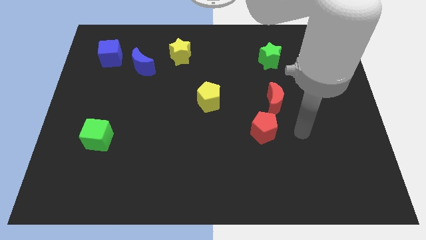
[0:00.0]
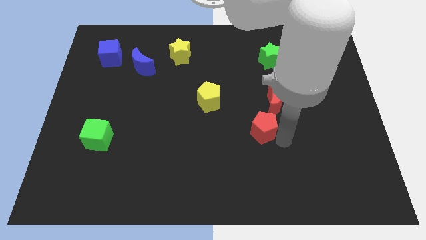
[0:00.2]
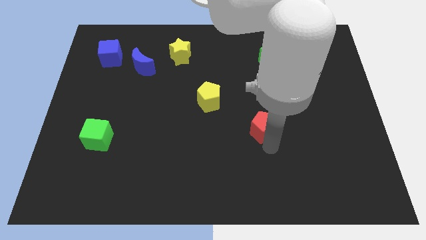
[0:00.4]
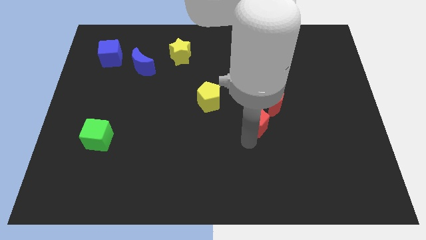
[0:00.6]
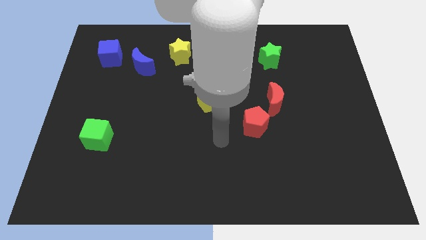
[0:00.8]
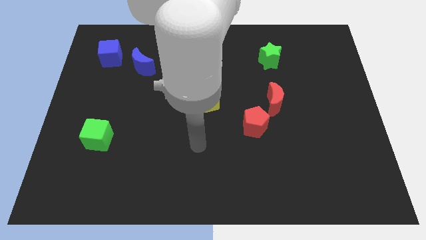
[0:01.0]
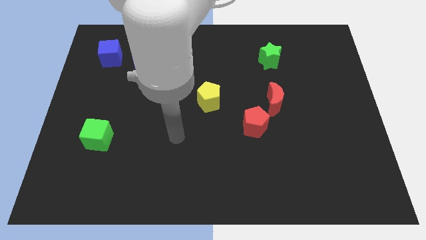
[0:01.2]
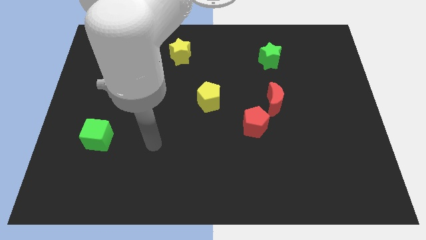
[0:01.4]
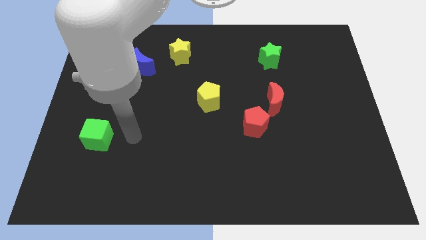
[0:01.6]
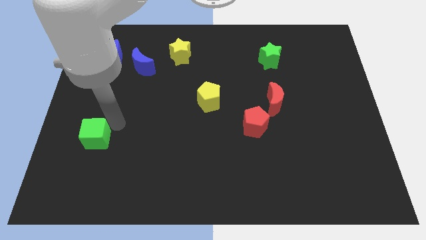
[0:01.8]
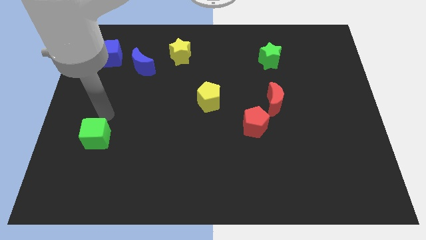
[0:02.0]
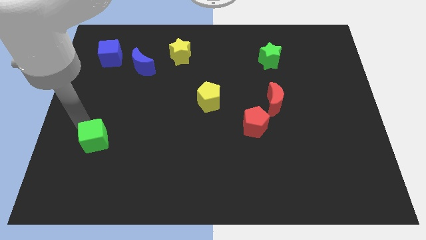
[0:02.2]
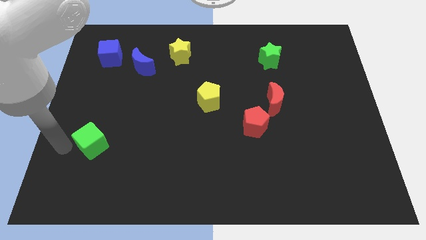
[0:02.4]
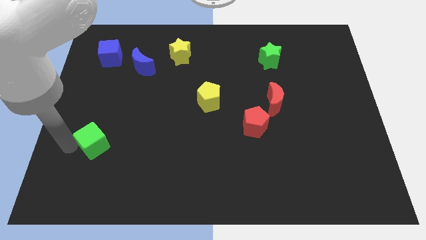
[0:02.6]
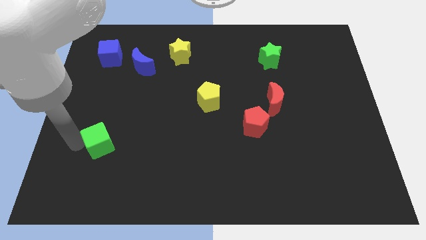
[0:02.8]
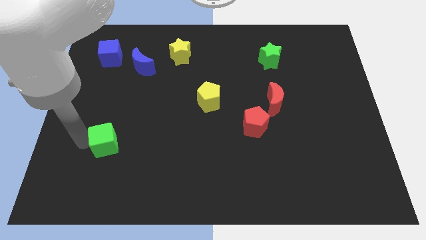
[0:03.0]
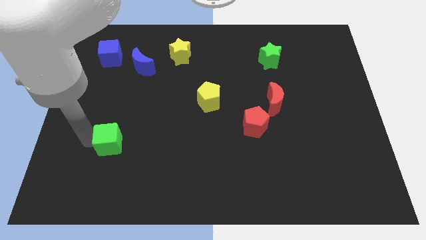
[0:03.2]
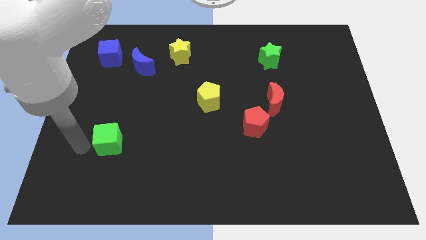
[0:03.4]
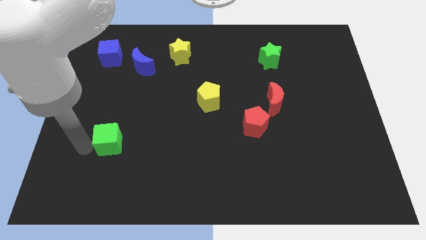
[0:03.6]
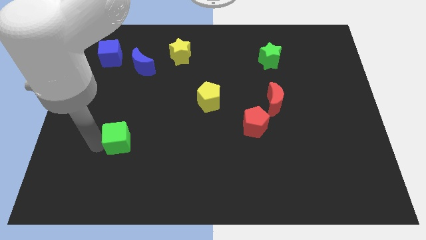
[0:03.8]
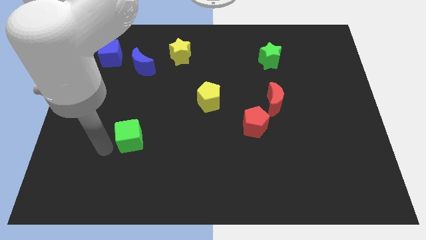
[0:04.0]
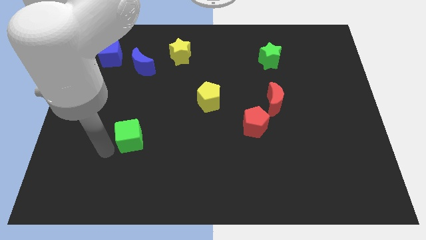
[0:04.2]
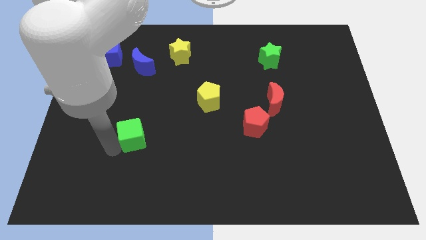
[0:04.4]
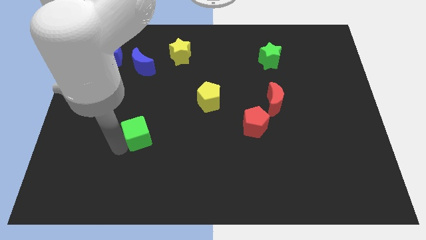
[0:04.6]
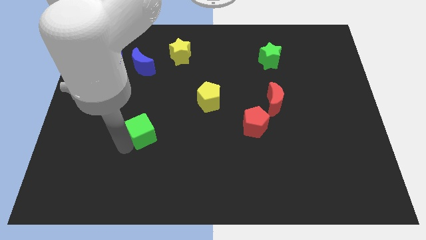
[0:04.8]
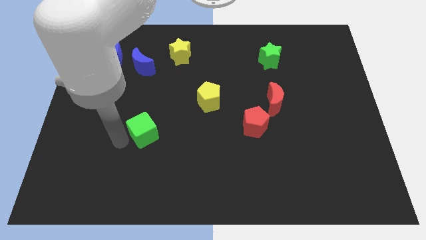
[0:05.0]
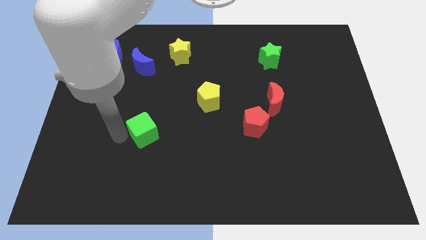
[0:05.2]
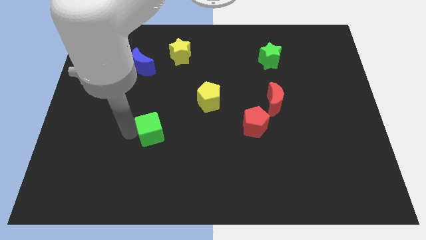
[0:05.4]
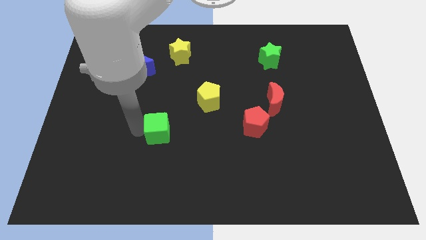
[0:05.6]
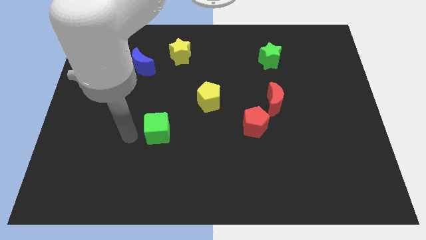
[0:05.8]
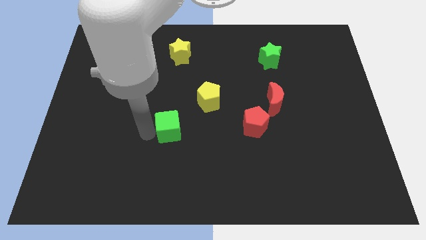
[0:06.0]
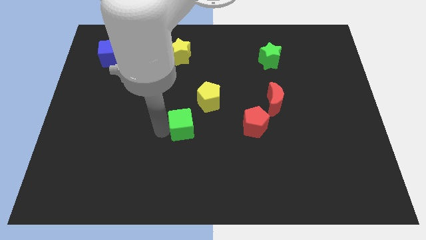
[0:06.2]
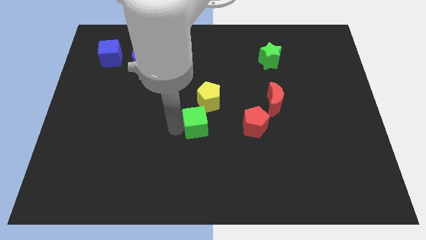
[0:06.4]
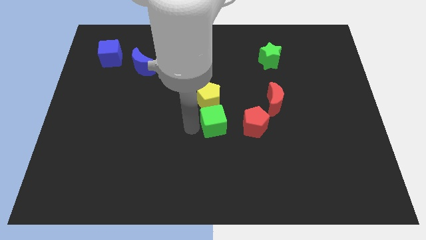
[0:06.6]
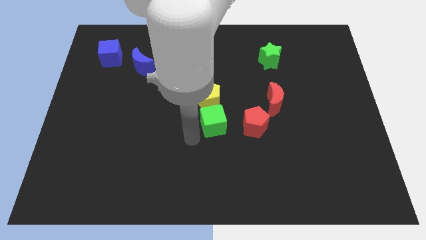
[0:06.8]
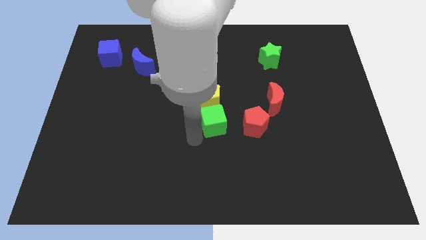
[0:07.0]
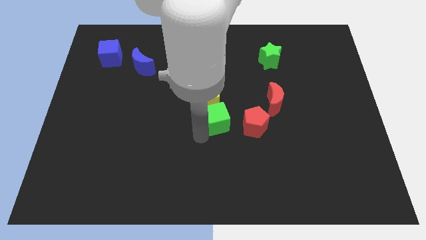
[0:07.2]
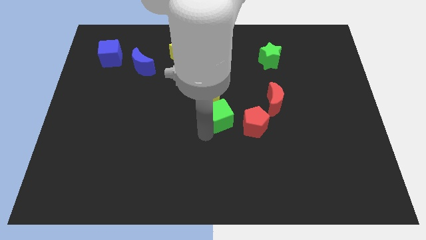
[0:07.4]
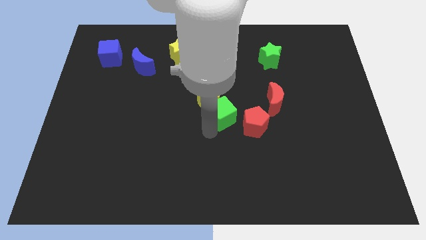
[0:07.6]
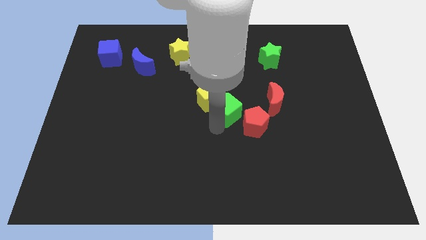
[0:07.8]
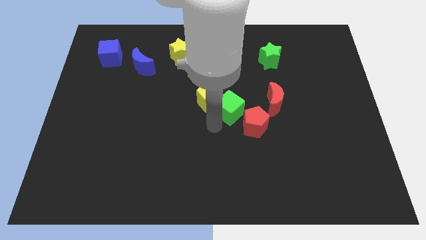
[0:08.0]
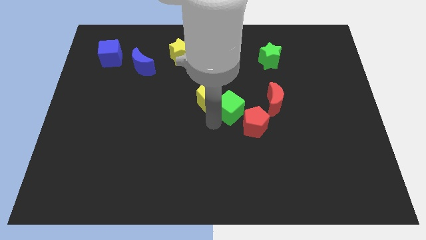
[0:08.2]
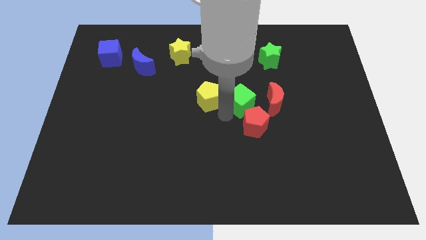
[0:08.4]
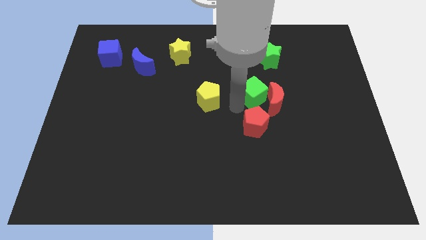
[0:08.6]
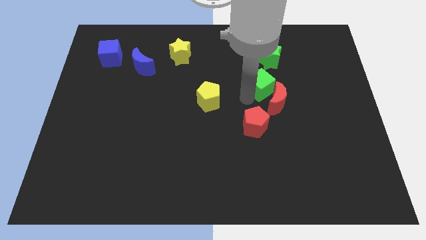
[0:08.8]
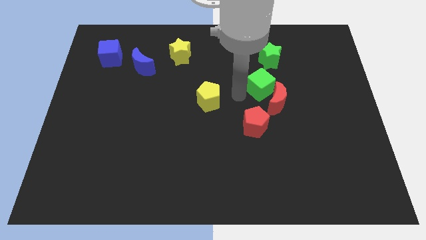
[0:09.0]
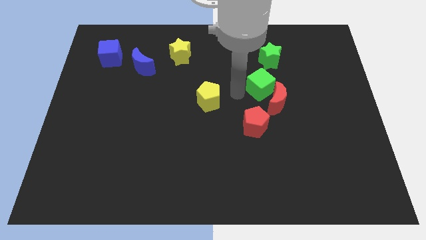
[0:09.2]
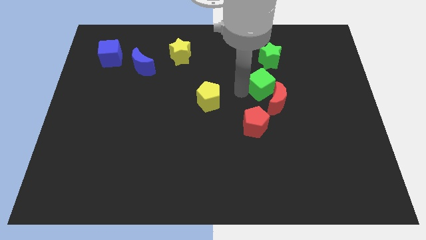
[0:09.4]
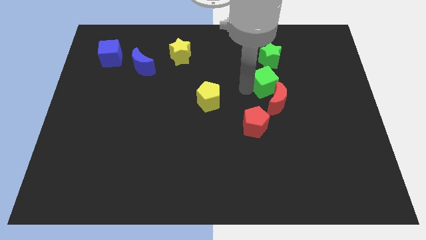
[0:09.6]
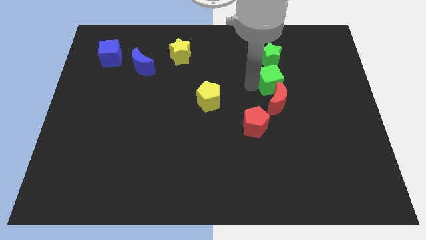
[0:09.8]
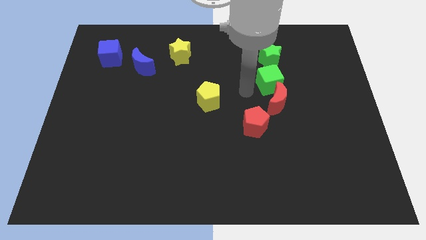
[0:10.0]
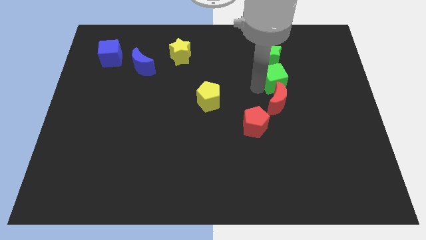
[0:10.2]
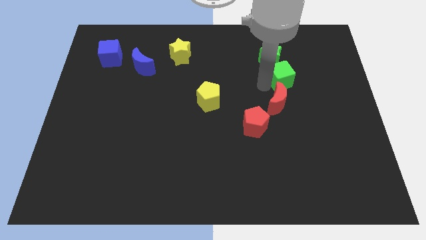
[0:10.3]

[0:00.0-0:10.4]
slide the green cube to the bottom right of the green star

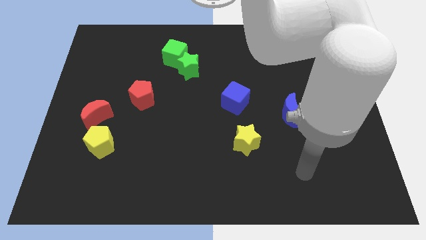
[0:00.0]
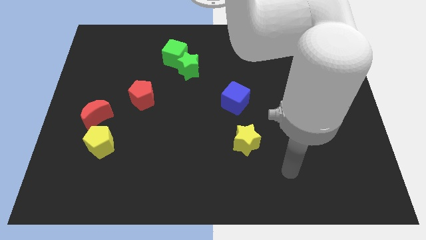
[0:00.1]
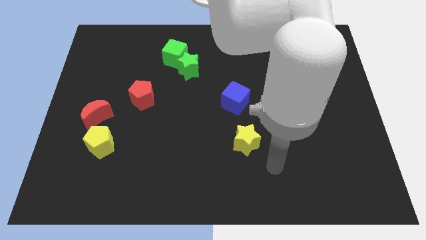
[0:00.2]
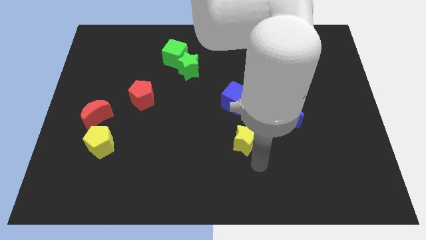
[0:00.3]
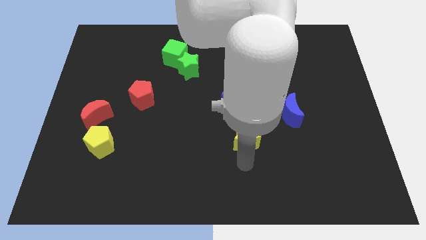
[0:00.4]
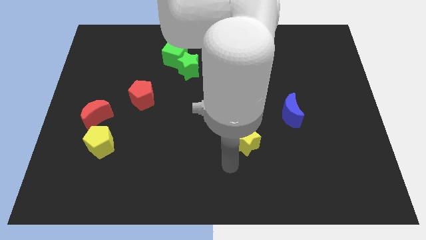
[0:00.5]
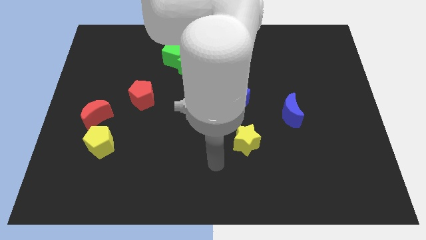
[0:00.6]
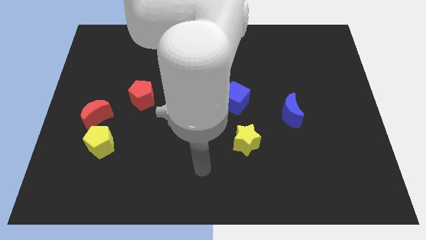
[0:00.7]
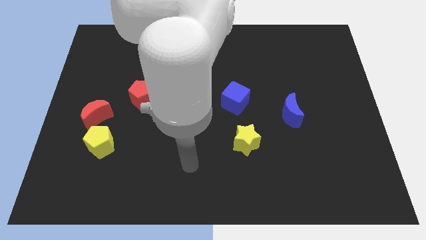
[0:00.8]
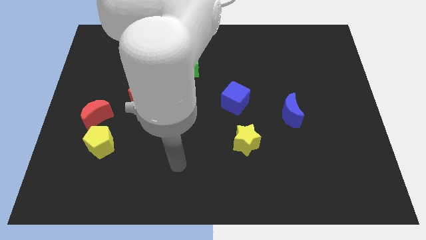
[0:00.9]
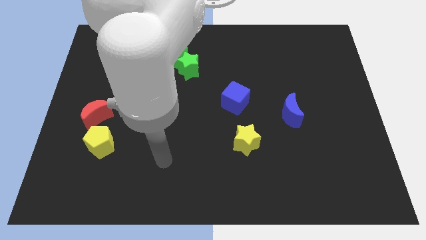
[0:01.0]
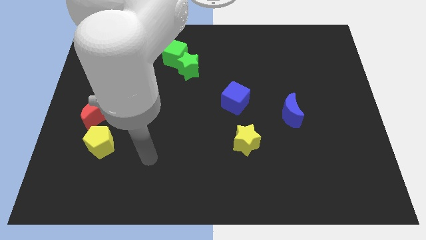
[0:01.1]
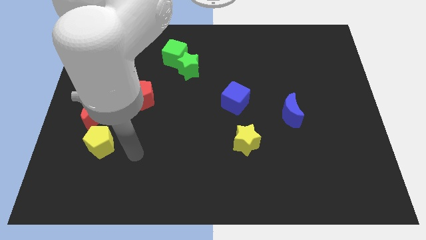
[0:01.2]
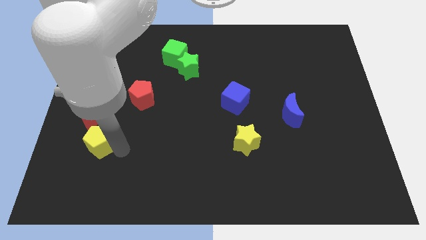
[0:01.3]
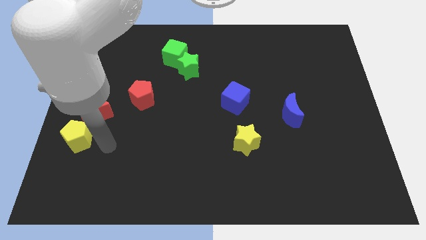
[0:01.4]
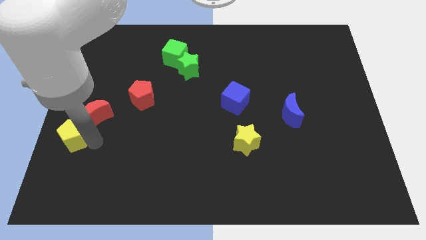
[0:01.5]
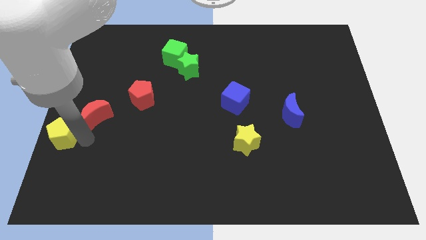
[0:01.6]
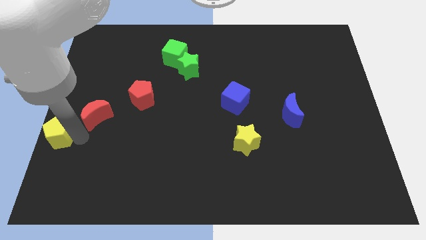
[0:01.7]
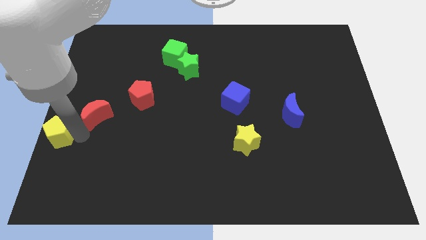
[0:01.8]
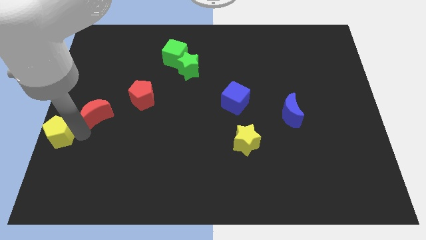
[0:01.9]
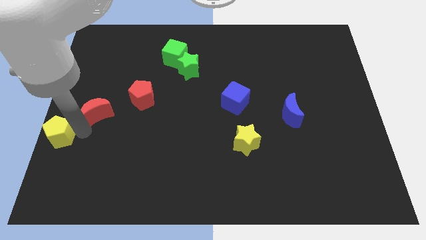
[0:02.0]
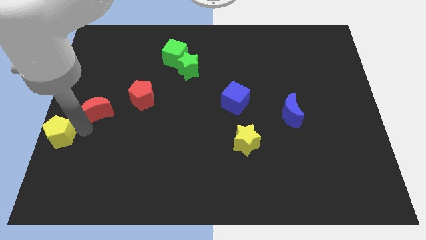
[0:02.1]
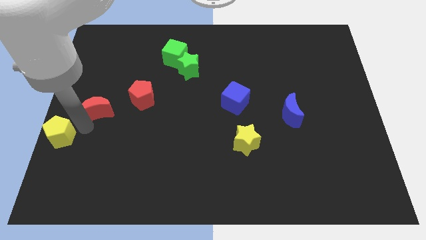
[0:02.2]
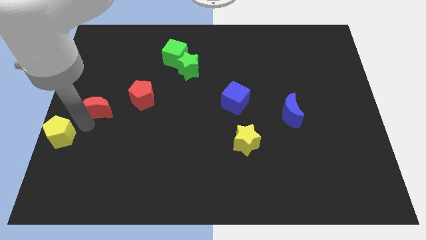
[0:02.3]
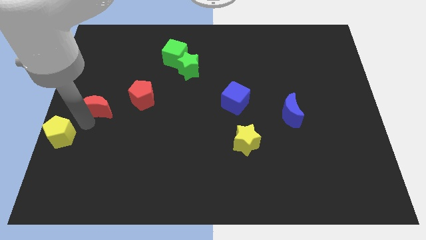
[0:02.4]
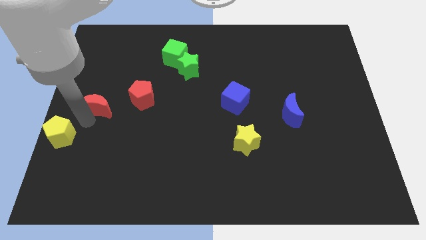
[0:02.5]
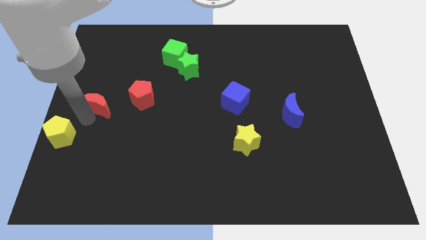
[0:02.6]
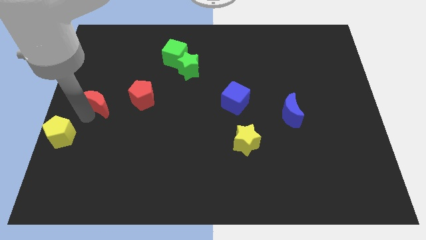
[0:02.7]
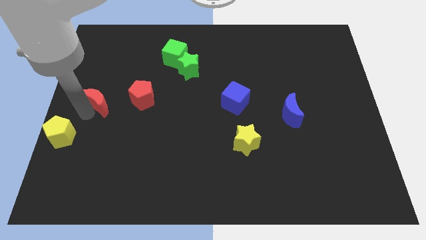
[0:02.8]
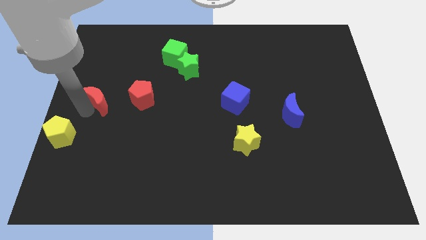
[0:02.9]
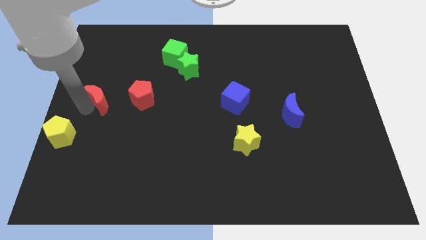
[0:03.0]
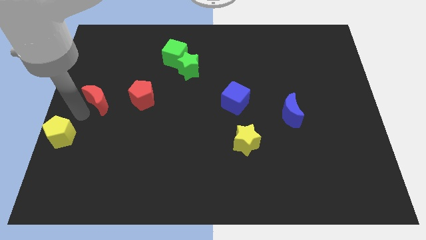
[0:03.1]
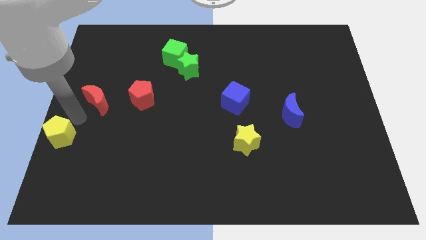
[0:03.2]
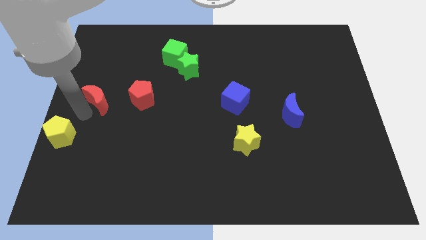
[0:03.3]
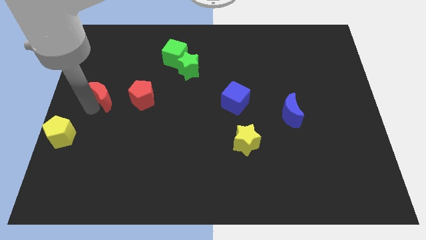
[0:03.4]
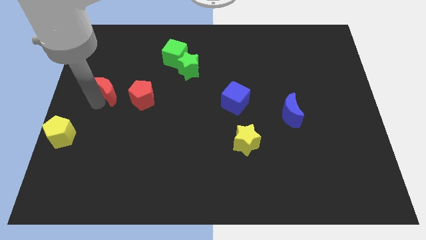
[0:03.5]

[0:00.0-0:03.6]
move the red moon diagonally up and to the left of the red pentagon
